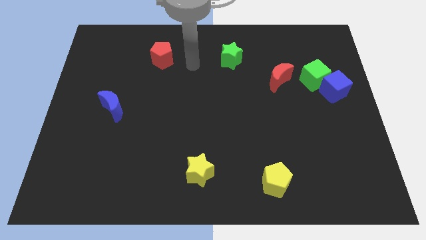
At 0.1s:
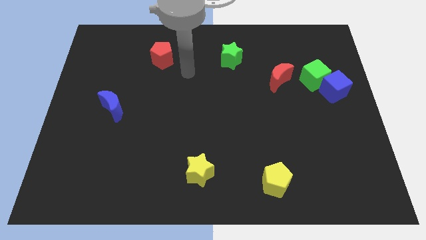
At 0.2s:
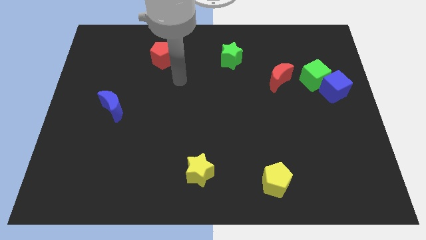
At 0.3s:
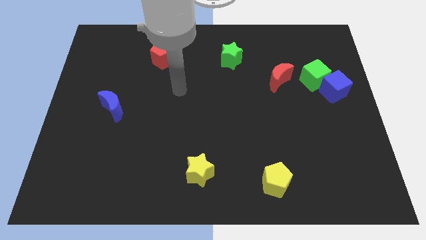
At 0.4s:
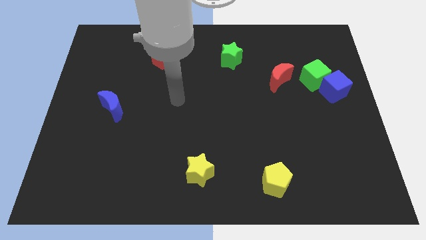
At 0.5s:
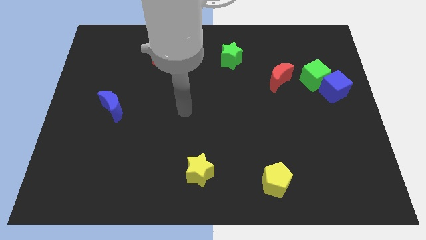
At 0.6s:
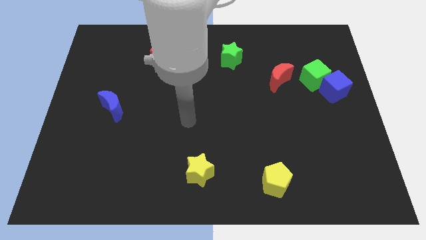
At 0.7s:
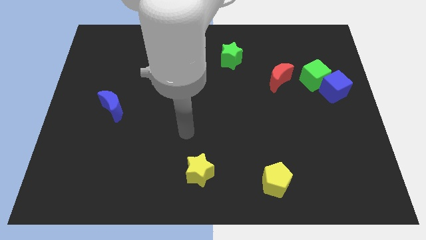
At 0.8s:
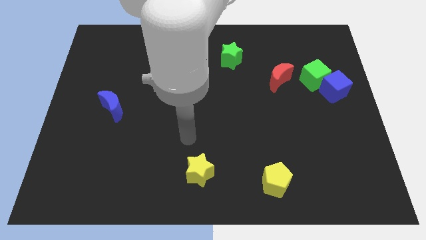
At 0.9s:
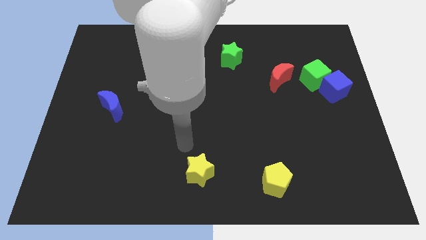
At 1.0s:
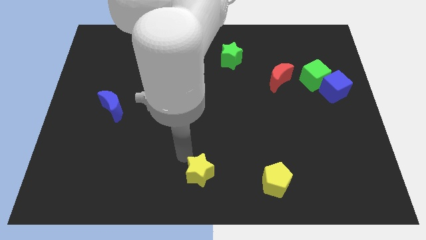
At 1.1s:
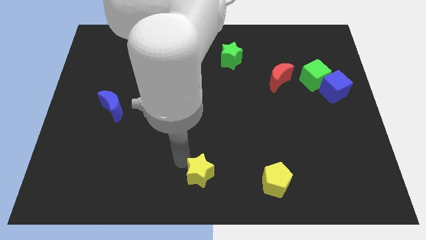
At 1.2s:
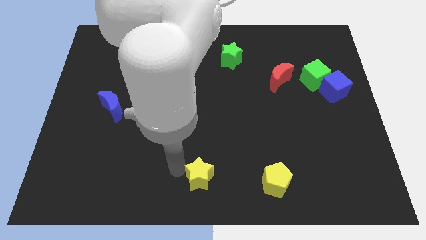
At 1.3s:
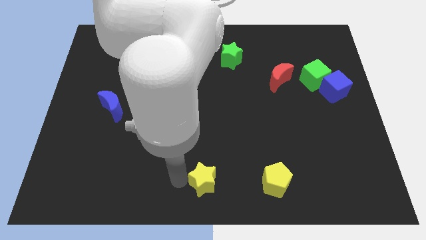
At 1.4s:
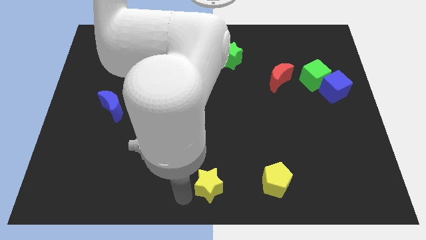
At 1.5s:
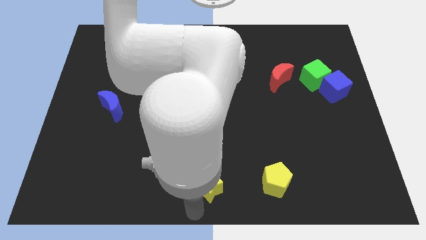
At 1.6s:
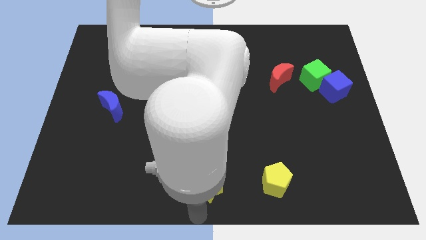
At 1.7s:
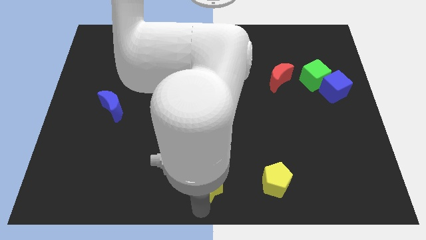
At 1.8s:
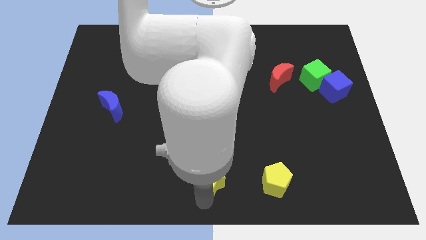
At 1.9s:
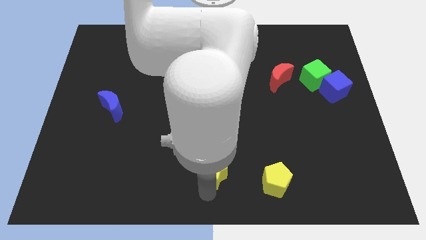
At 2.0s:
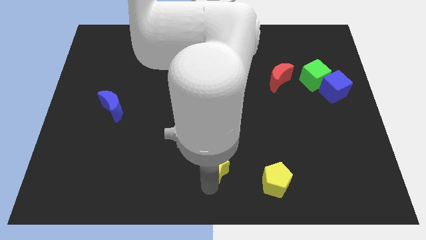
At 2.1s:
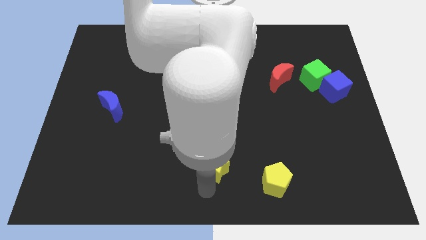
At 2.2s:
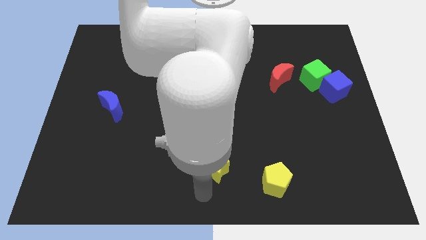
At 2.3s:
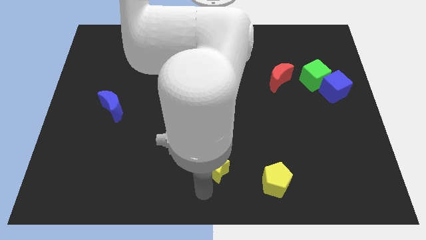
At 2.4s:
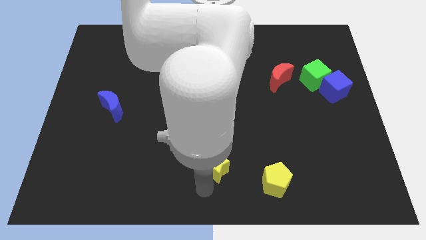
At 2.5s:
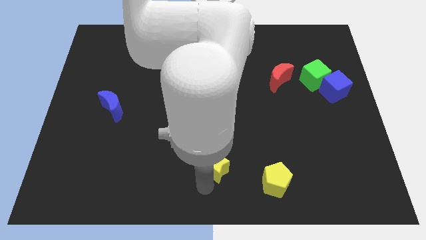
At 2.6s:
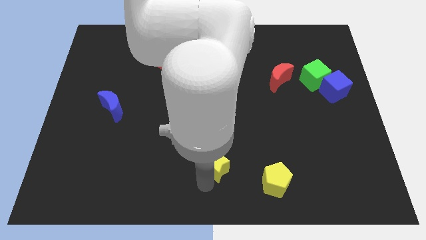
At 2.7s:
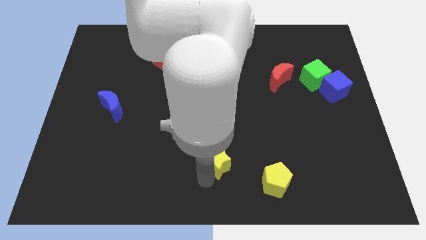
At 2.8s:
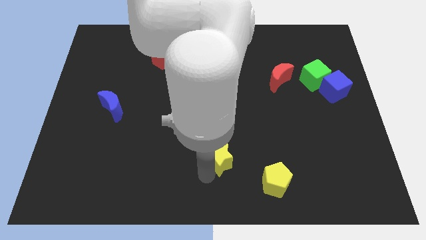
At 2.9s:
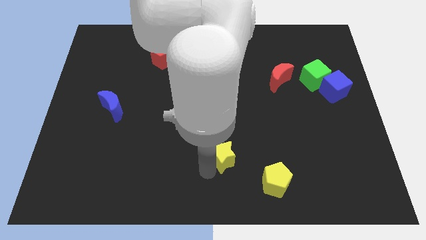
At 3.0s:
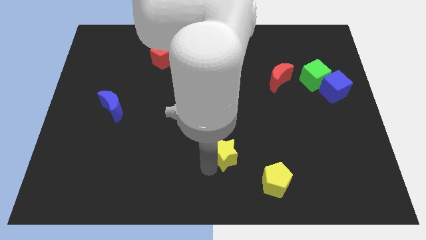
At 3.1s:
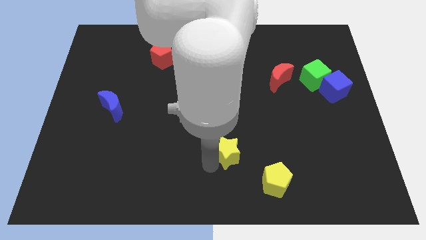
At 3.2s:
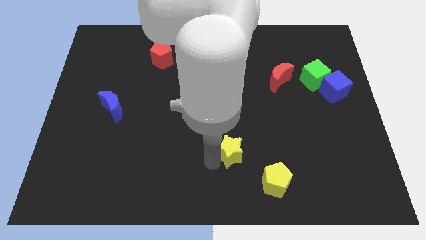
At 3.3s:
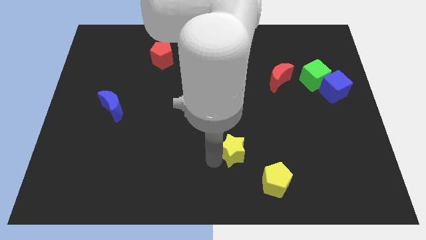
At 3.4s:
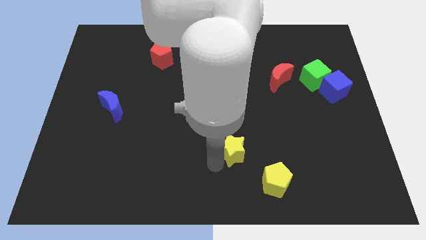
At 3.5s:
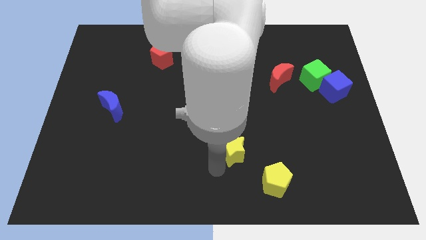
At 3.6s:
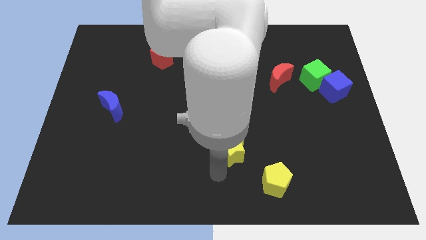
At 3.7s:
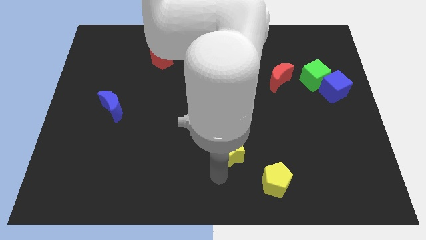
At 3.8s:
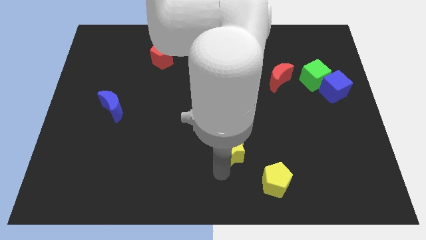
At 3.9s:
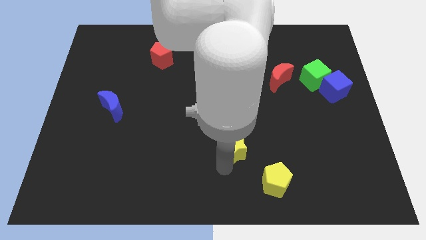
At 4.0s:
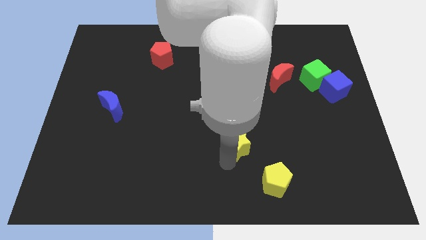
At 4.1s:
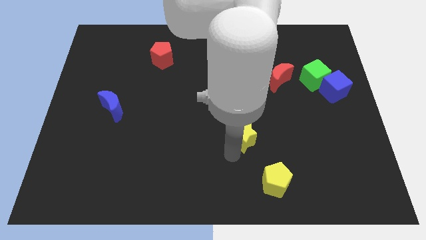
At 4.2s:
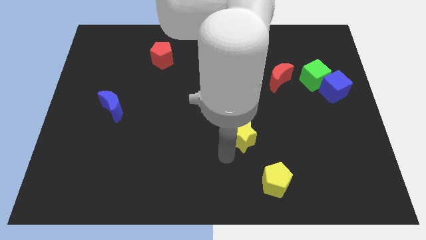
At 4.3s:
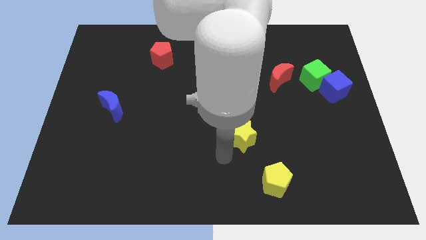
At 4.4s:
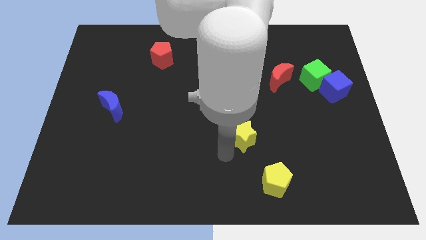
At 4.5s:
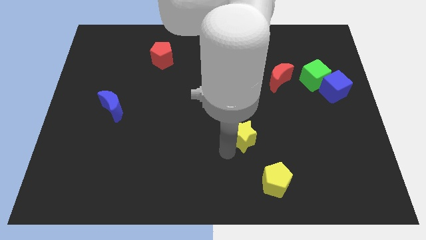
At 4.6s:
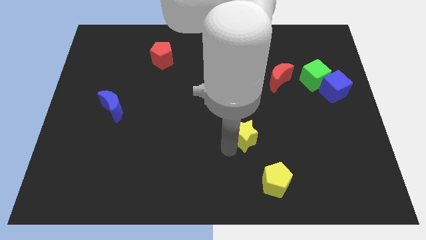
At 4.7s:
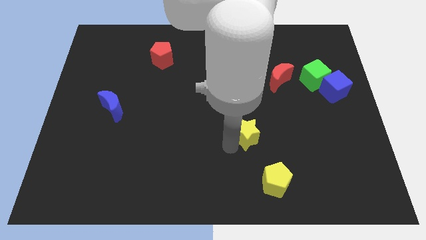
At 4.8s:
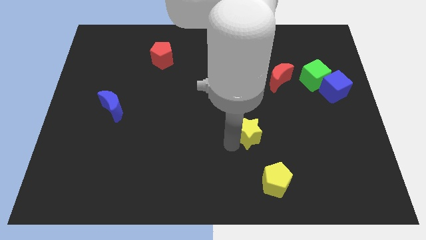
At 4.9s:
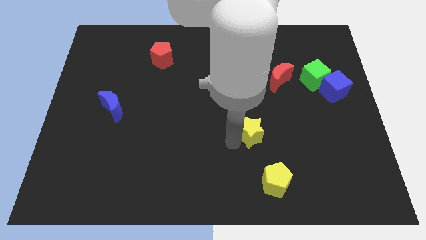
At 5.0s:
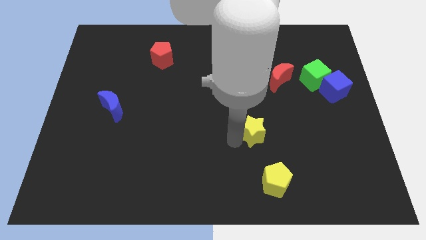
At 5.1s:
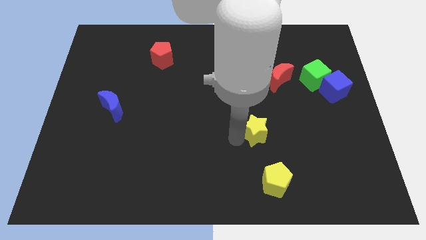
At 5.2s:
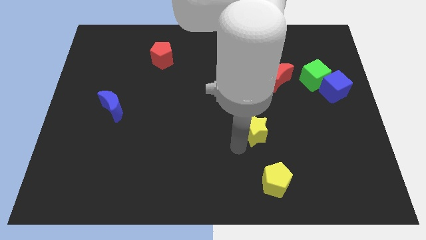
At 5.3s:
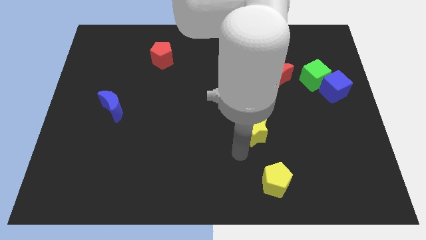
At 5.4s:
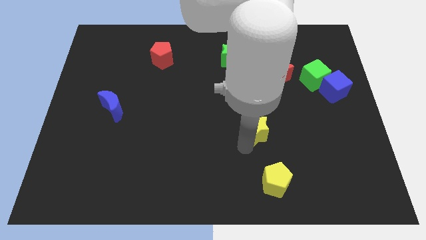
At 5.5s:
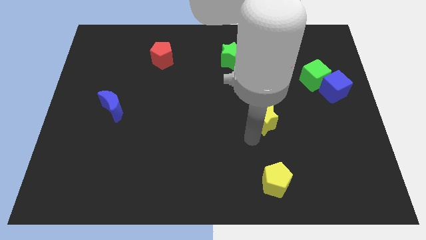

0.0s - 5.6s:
move the yellow star diagonally upwards and to the right

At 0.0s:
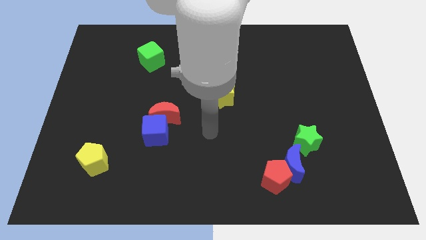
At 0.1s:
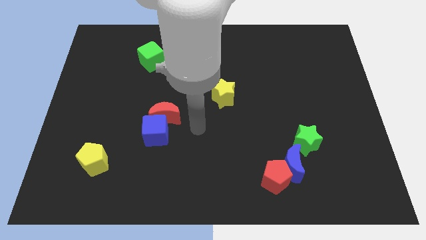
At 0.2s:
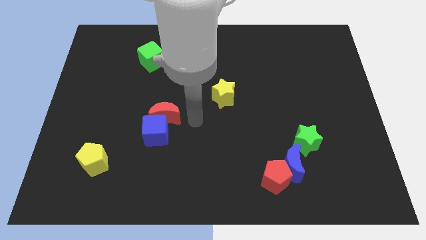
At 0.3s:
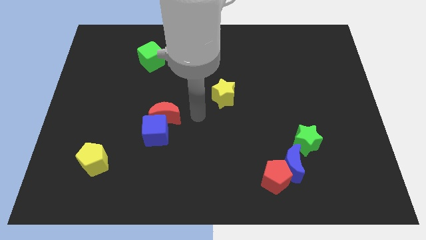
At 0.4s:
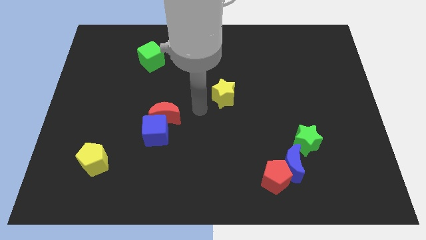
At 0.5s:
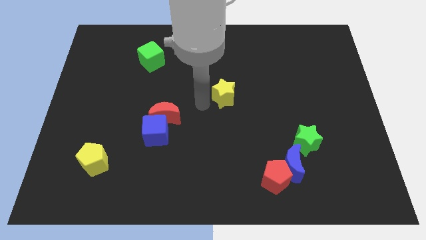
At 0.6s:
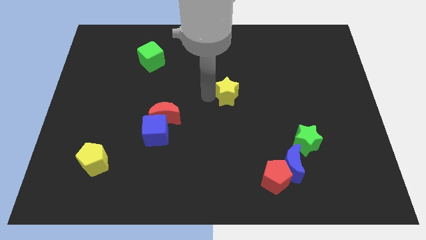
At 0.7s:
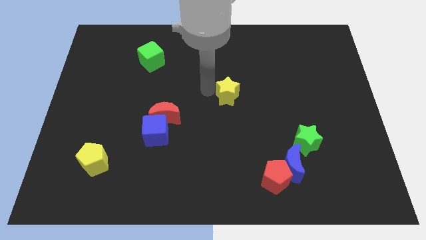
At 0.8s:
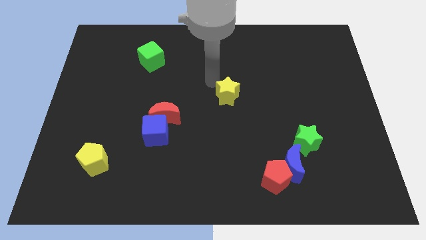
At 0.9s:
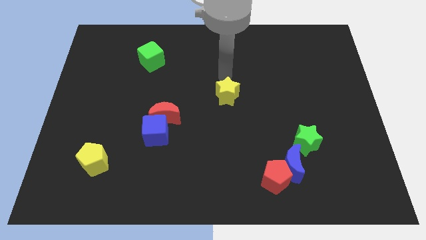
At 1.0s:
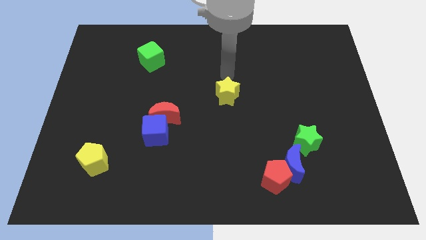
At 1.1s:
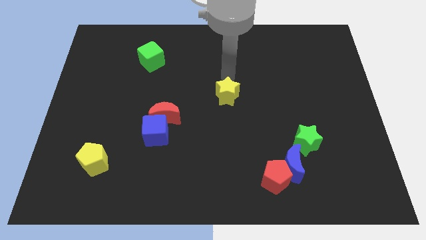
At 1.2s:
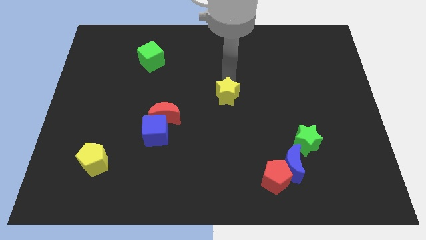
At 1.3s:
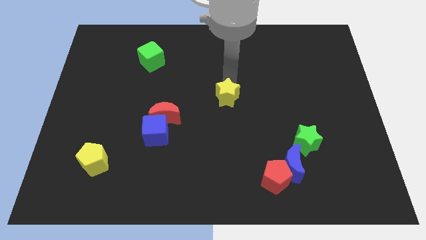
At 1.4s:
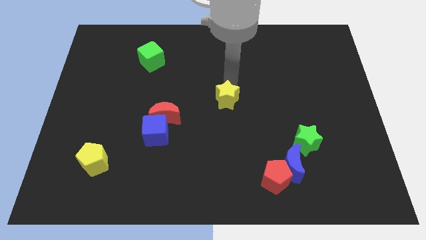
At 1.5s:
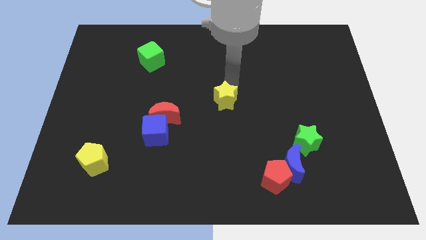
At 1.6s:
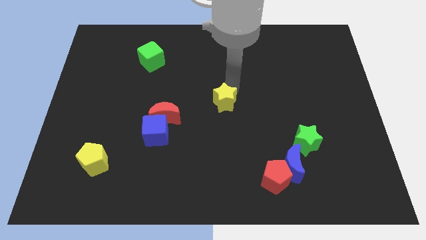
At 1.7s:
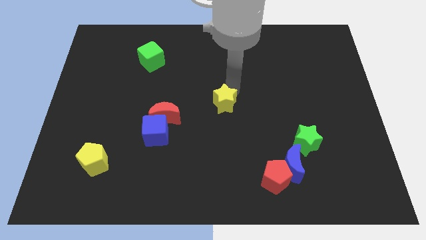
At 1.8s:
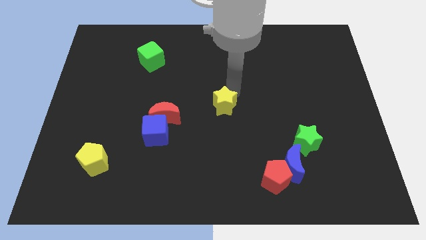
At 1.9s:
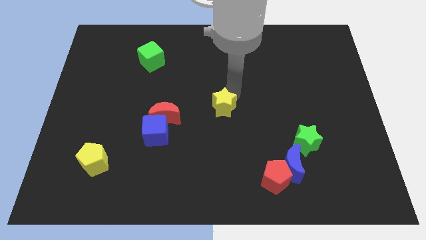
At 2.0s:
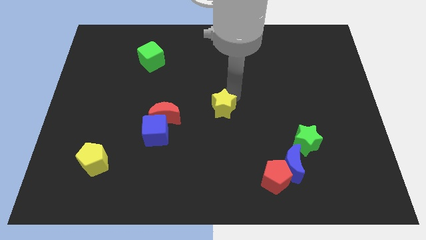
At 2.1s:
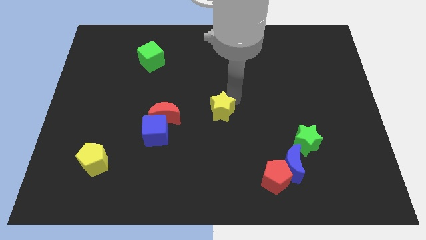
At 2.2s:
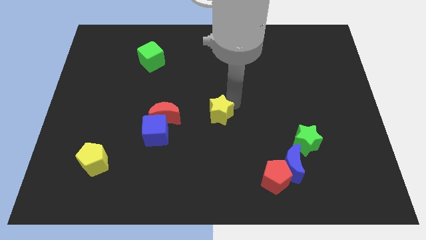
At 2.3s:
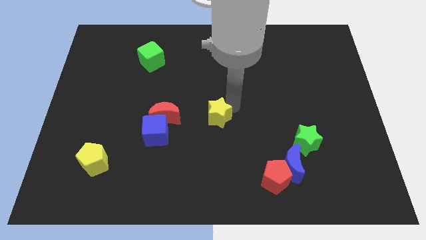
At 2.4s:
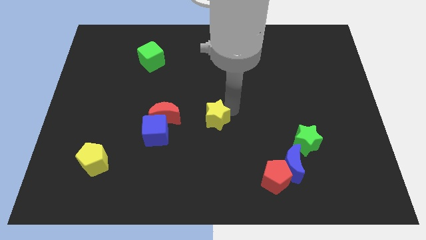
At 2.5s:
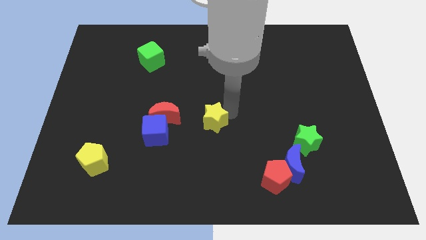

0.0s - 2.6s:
slightly slide the yellow star downwards

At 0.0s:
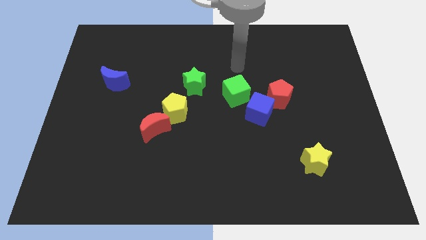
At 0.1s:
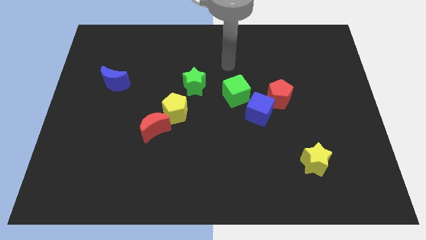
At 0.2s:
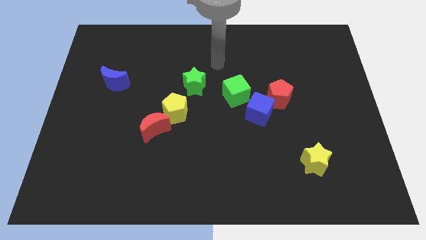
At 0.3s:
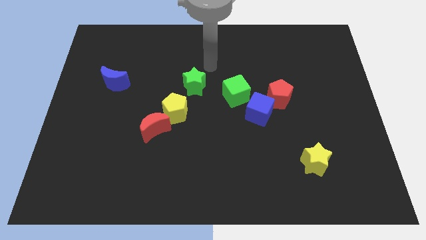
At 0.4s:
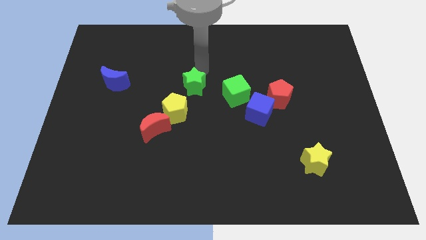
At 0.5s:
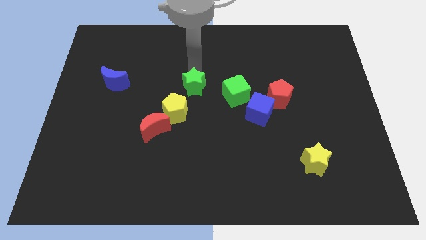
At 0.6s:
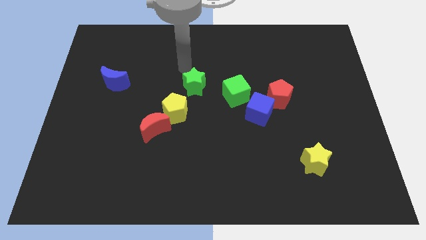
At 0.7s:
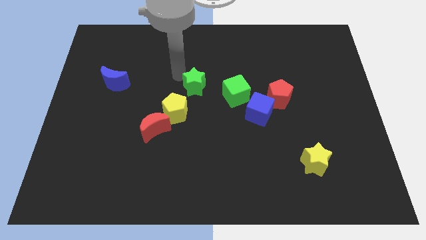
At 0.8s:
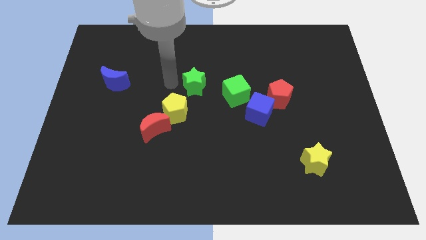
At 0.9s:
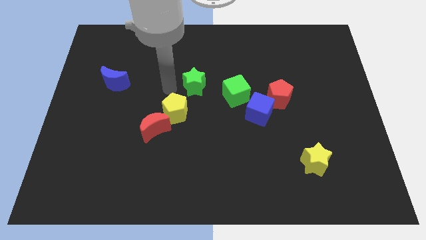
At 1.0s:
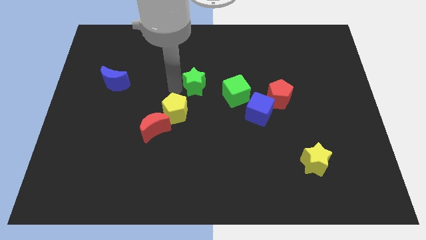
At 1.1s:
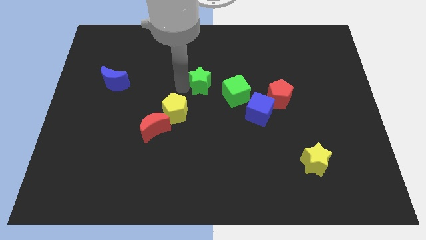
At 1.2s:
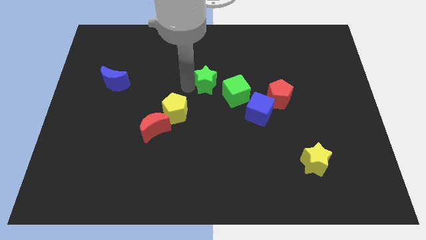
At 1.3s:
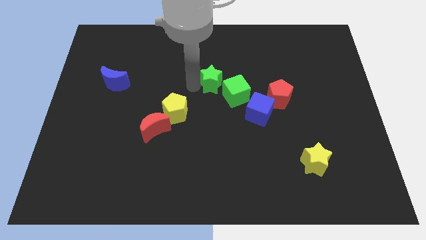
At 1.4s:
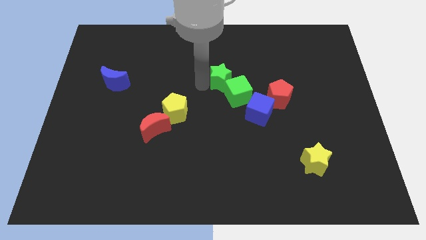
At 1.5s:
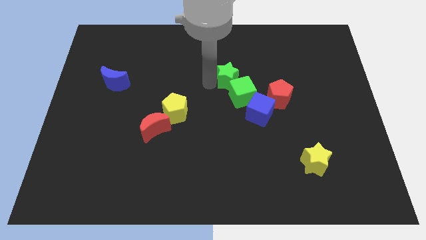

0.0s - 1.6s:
push the green star a little bit right
